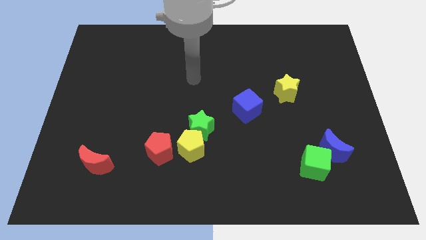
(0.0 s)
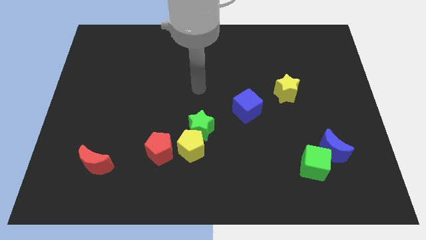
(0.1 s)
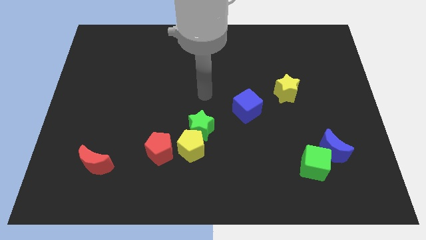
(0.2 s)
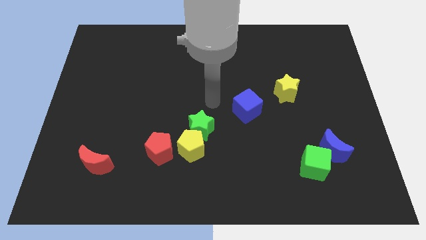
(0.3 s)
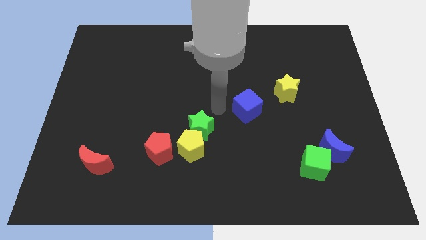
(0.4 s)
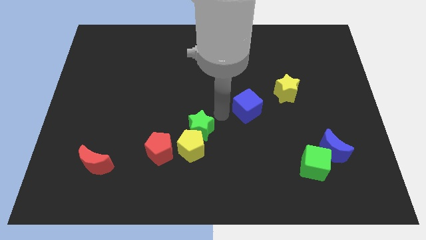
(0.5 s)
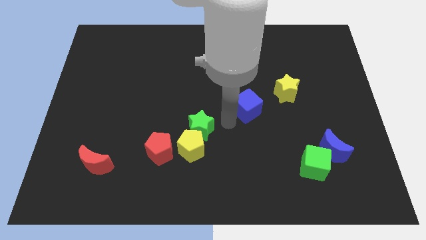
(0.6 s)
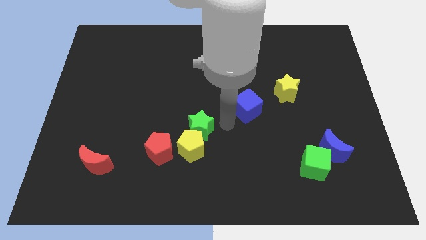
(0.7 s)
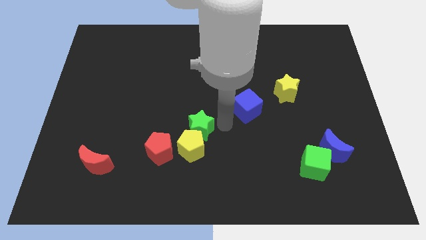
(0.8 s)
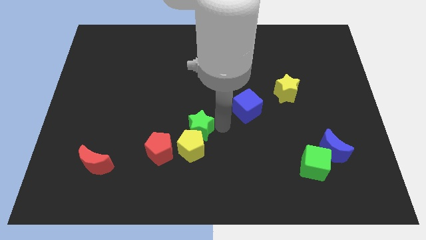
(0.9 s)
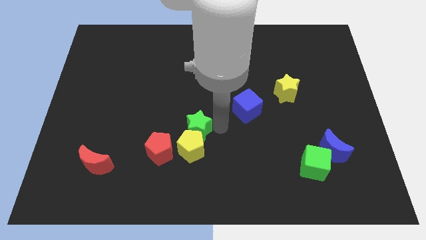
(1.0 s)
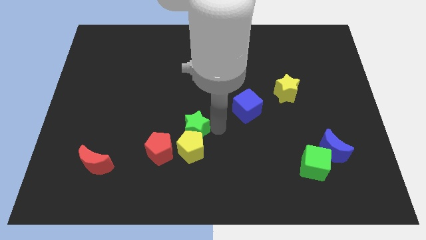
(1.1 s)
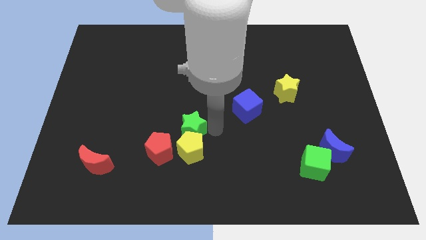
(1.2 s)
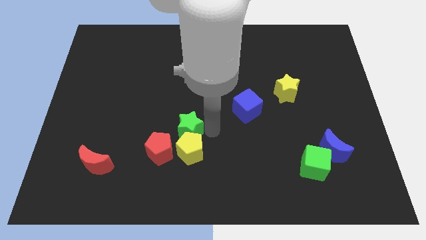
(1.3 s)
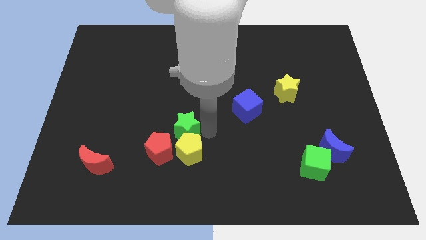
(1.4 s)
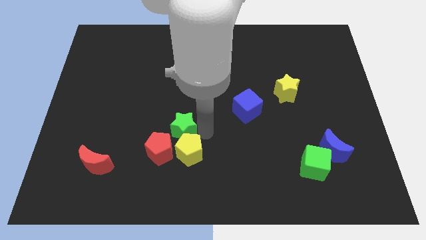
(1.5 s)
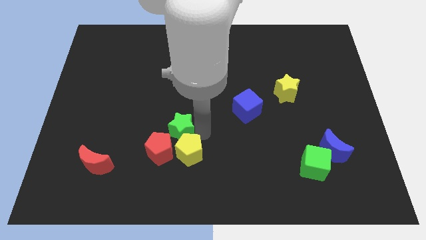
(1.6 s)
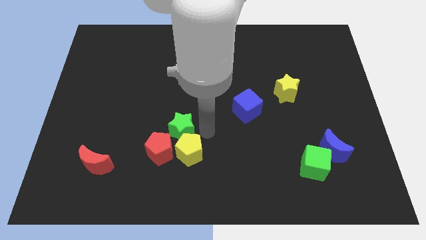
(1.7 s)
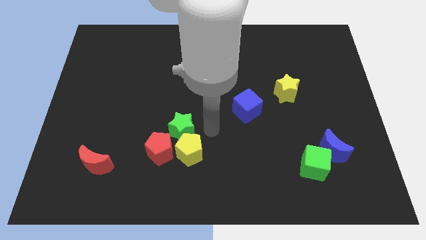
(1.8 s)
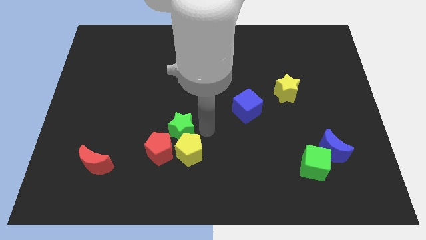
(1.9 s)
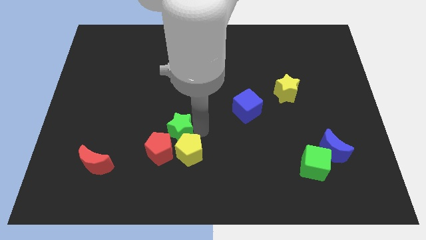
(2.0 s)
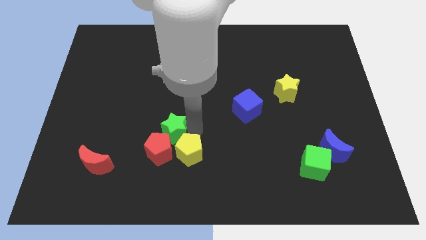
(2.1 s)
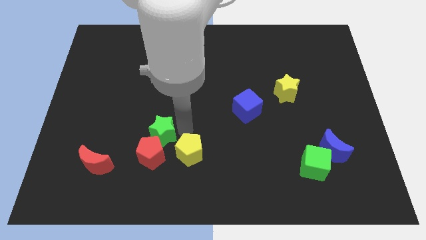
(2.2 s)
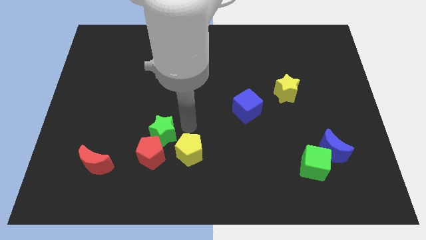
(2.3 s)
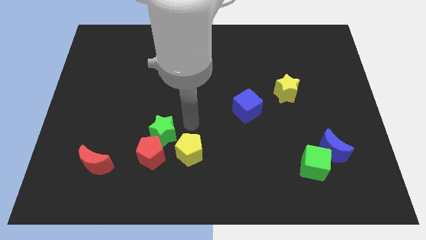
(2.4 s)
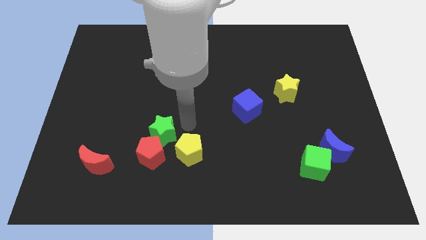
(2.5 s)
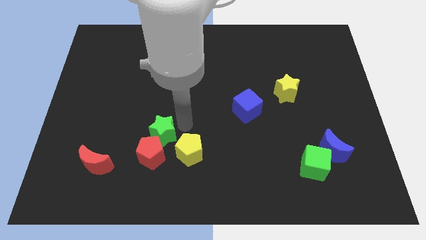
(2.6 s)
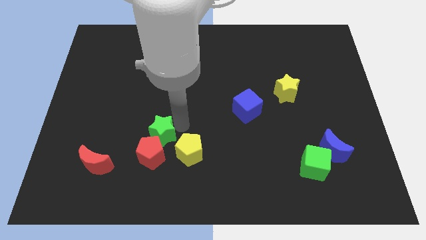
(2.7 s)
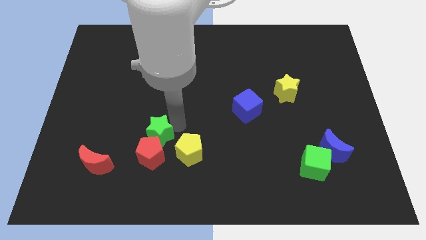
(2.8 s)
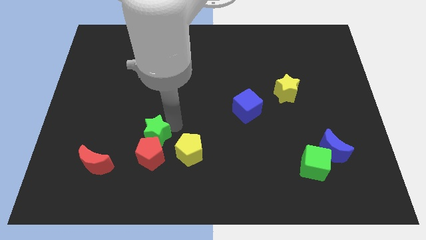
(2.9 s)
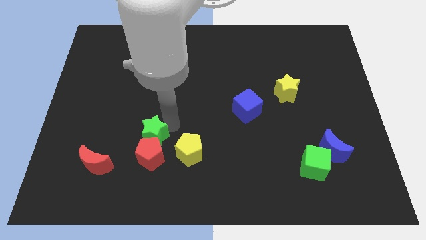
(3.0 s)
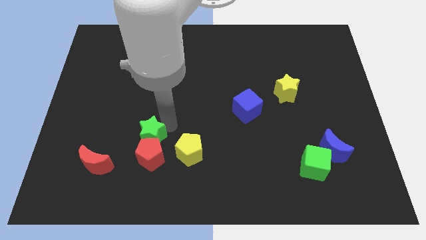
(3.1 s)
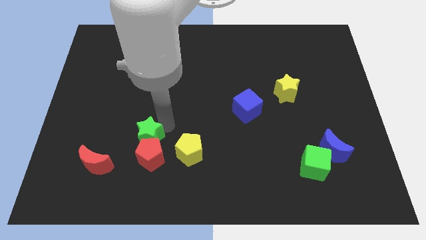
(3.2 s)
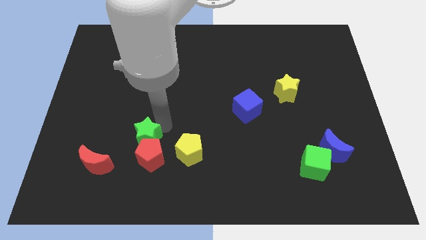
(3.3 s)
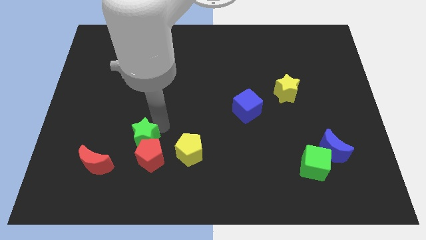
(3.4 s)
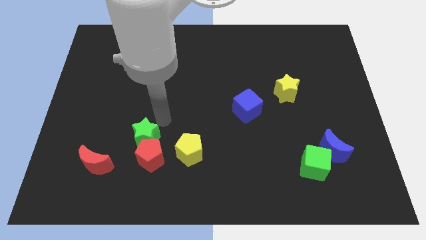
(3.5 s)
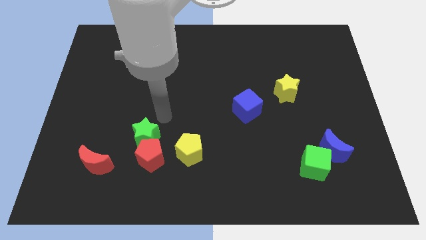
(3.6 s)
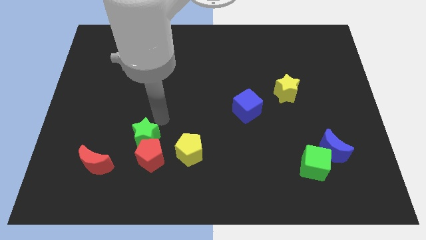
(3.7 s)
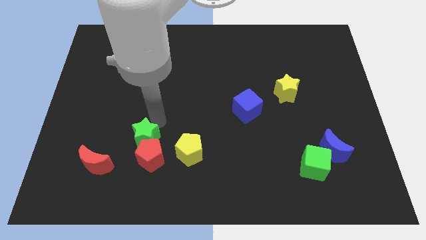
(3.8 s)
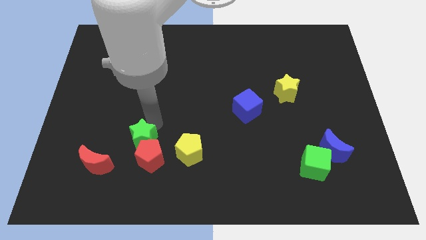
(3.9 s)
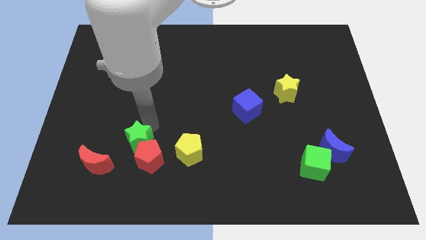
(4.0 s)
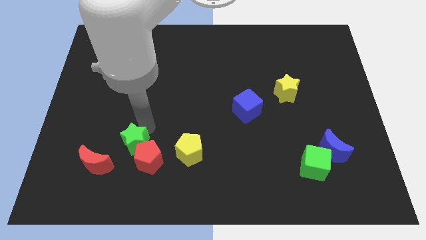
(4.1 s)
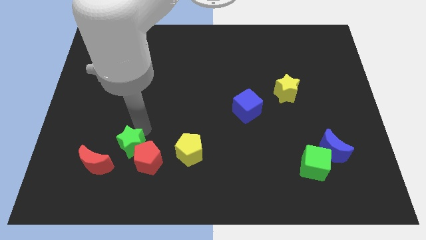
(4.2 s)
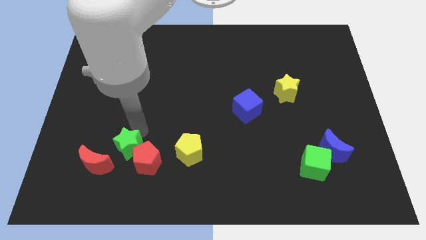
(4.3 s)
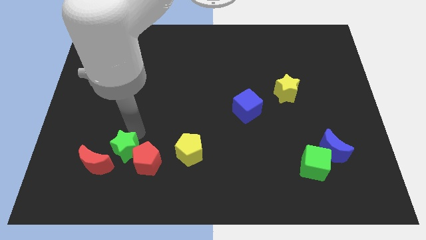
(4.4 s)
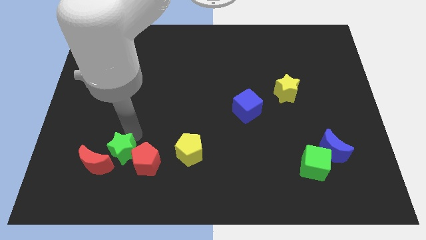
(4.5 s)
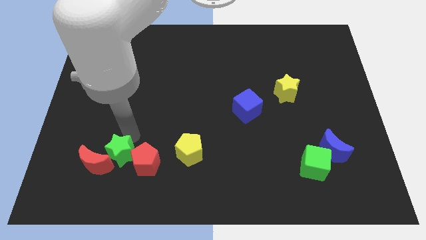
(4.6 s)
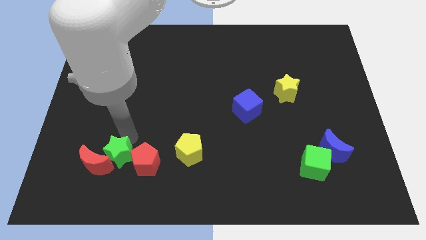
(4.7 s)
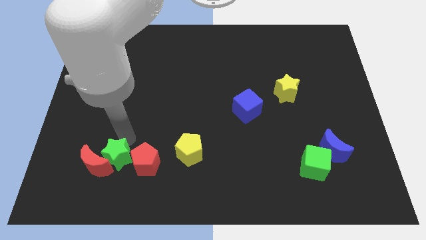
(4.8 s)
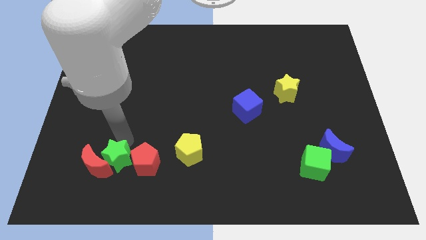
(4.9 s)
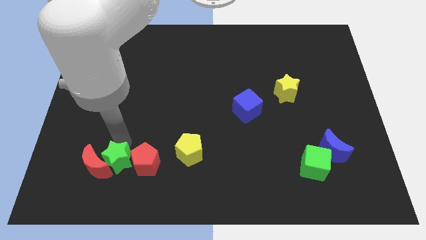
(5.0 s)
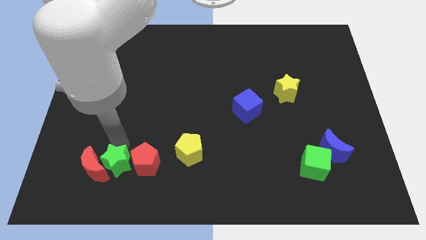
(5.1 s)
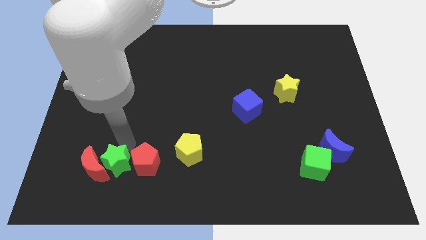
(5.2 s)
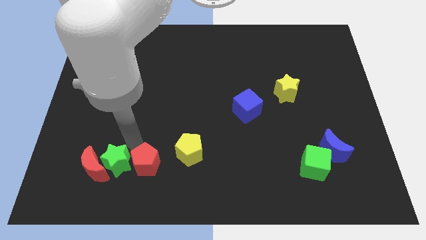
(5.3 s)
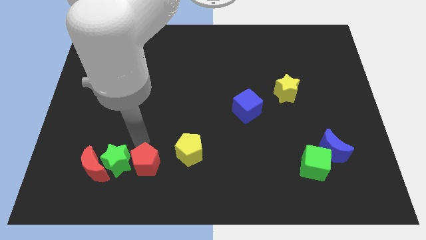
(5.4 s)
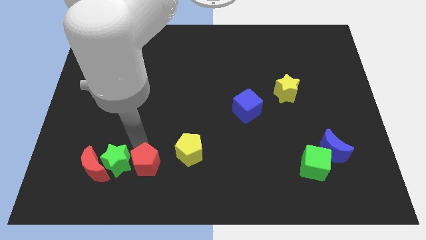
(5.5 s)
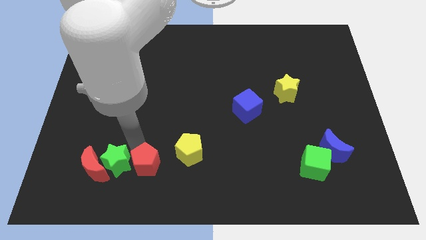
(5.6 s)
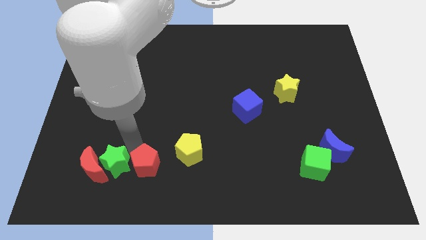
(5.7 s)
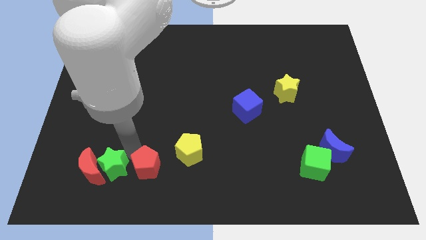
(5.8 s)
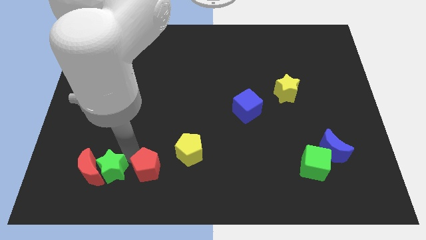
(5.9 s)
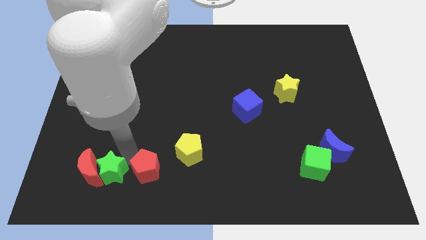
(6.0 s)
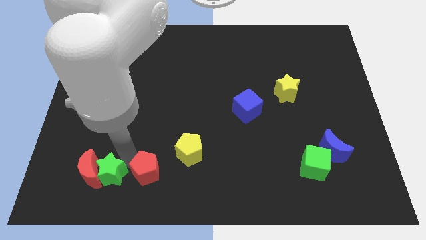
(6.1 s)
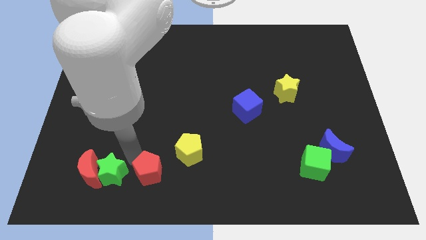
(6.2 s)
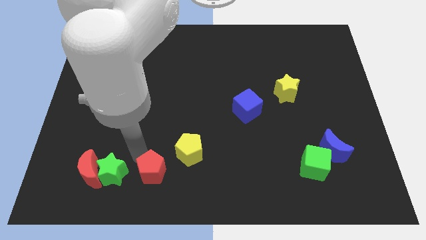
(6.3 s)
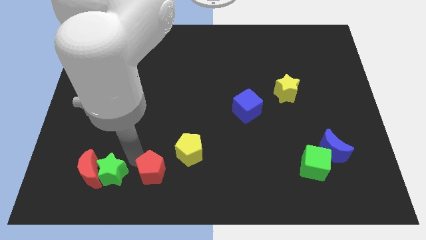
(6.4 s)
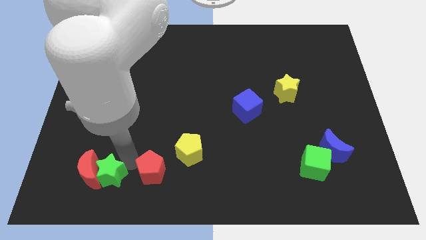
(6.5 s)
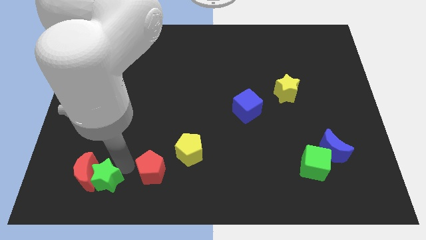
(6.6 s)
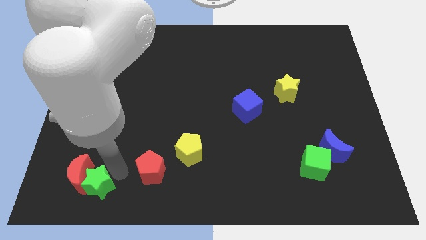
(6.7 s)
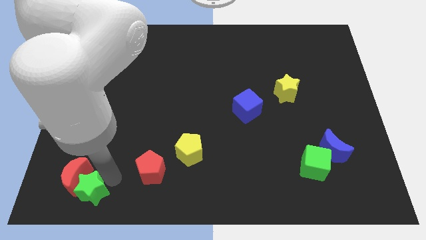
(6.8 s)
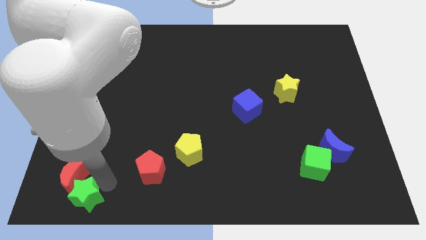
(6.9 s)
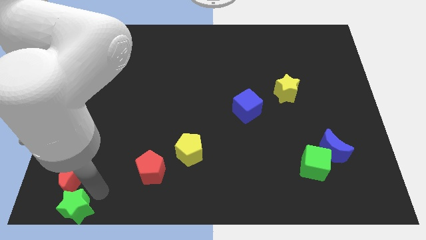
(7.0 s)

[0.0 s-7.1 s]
slide the green star to the bottom left
